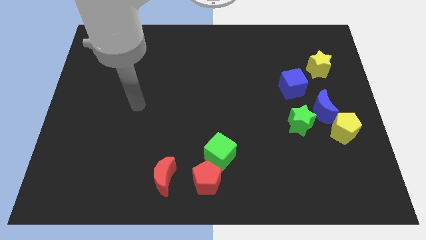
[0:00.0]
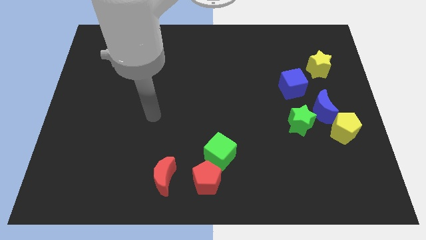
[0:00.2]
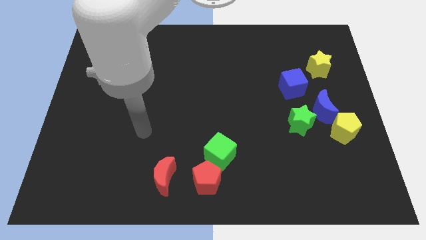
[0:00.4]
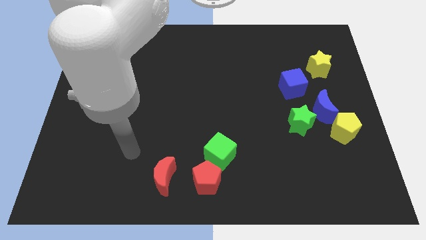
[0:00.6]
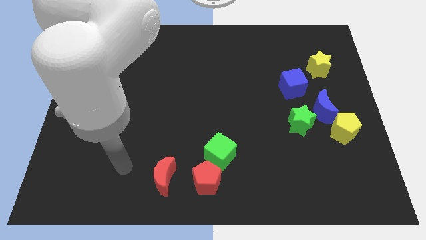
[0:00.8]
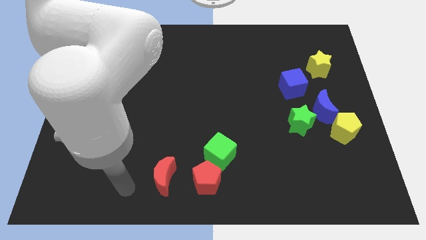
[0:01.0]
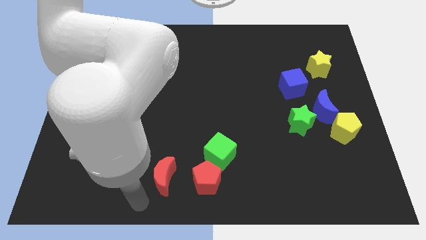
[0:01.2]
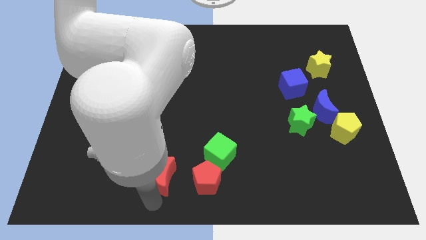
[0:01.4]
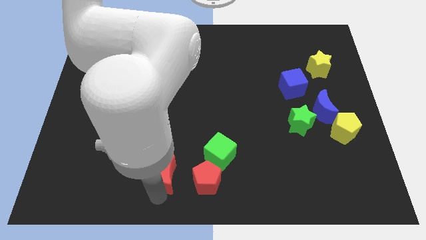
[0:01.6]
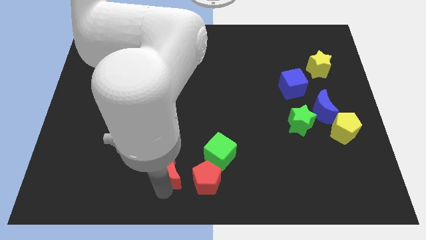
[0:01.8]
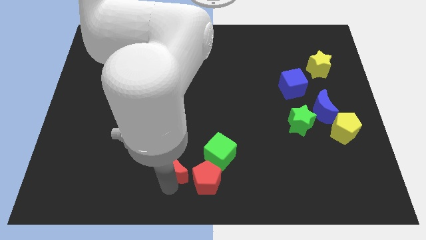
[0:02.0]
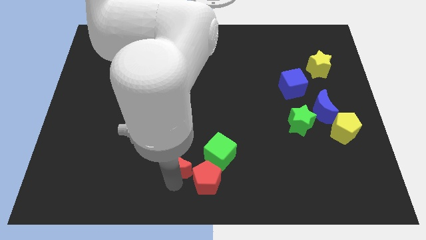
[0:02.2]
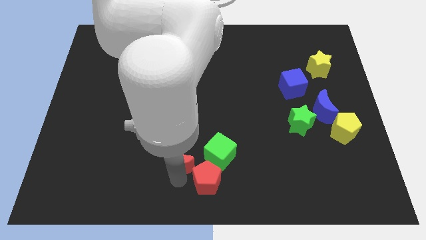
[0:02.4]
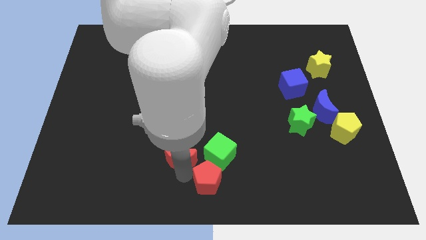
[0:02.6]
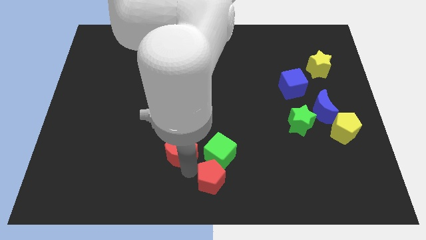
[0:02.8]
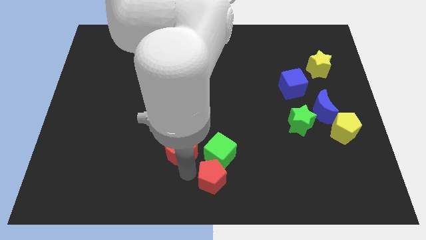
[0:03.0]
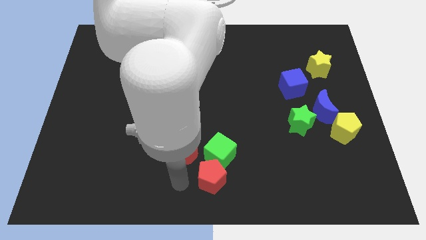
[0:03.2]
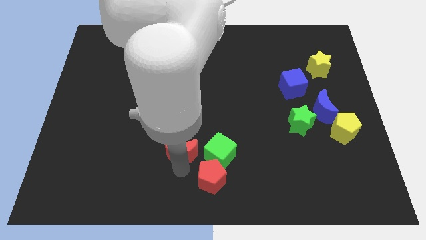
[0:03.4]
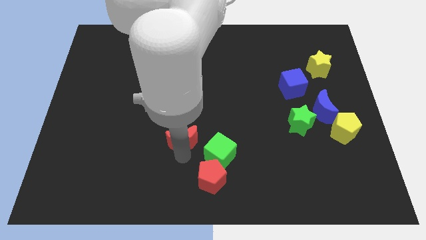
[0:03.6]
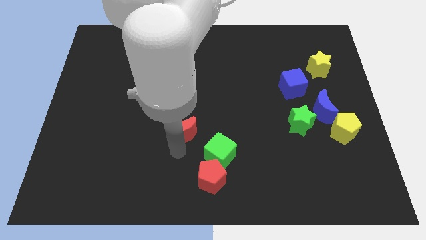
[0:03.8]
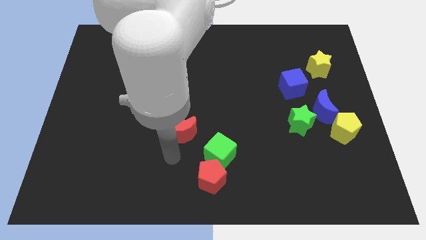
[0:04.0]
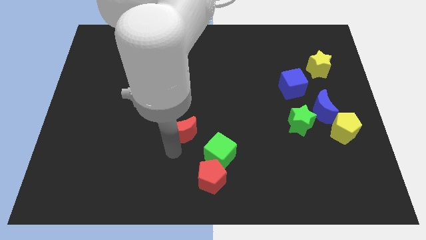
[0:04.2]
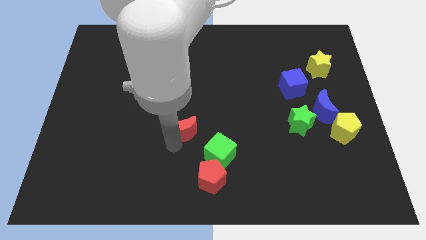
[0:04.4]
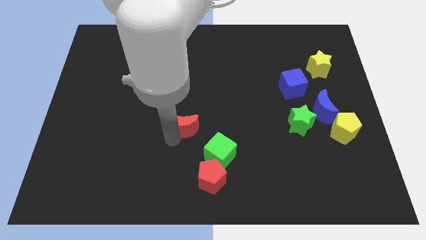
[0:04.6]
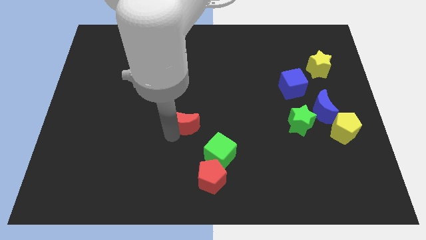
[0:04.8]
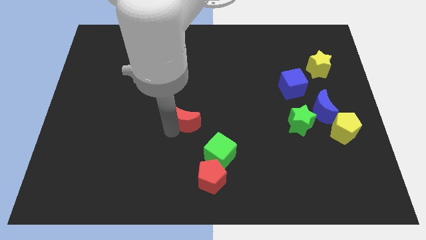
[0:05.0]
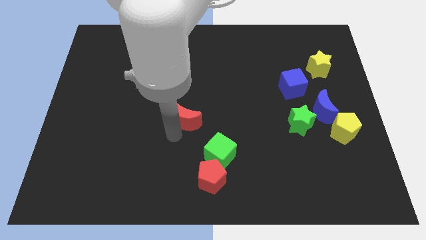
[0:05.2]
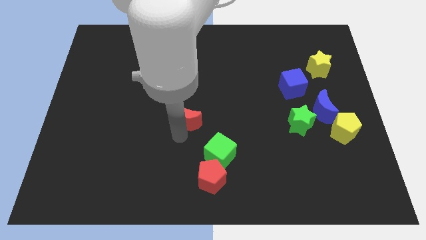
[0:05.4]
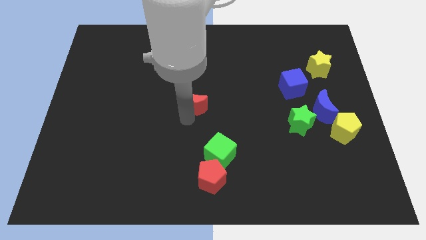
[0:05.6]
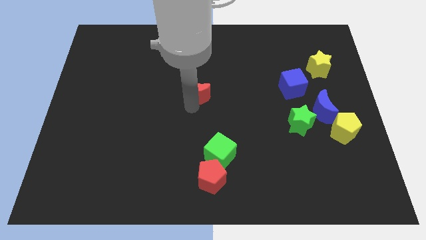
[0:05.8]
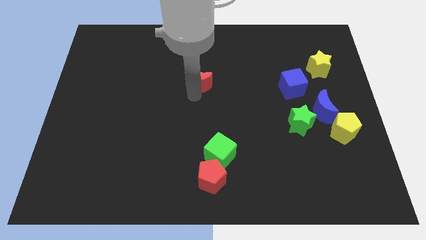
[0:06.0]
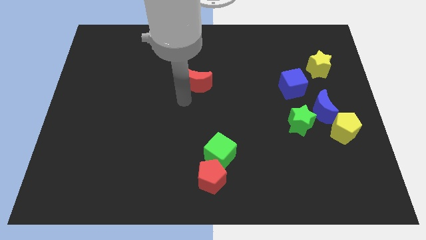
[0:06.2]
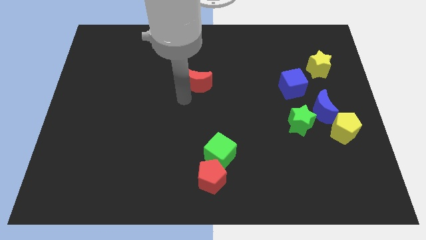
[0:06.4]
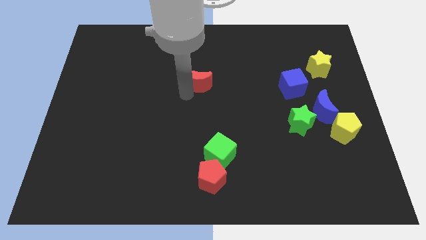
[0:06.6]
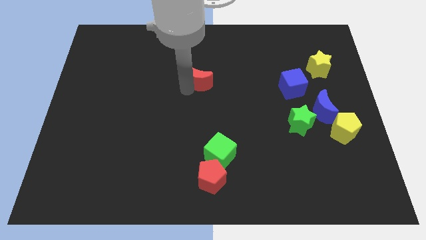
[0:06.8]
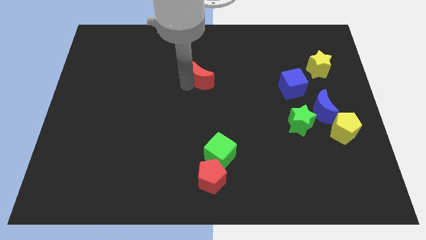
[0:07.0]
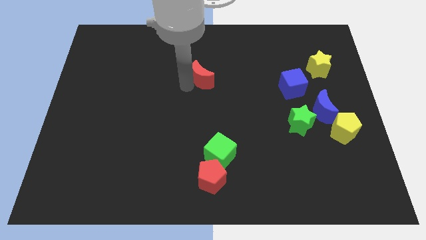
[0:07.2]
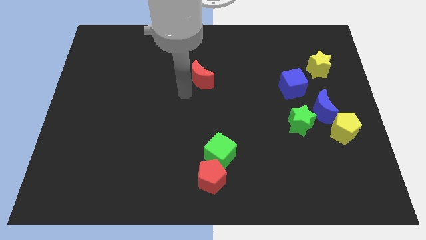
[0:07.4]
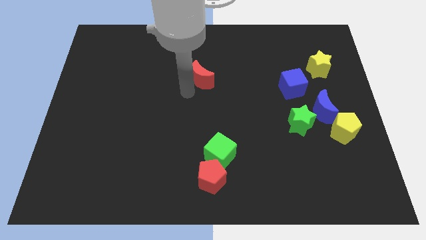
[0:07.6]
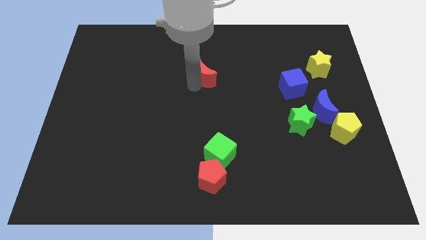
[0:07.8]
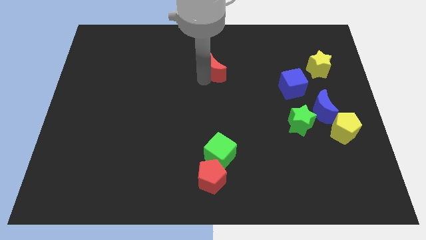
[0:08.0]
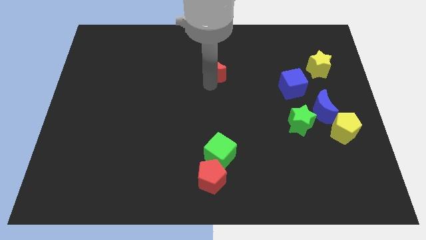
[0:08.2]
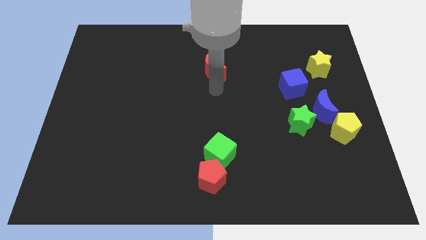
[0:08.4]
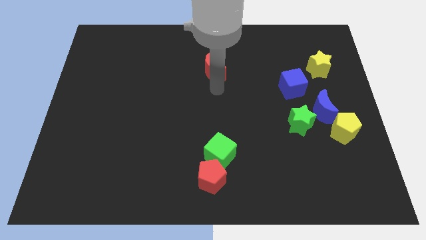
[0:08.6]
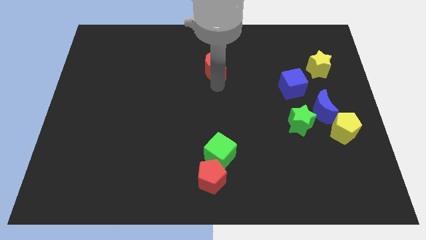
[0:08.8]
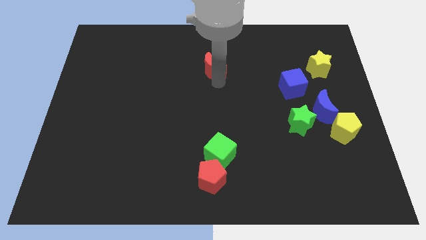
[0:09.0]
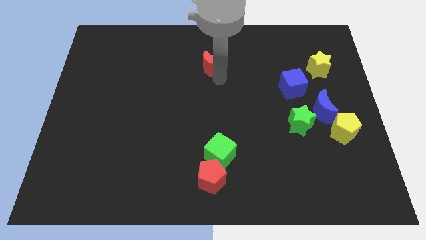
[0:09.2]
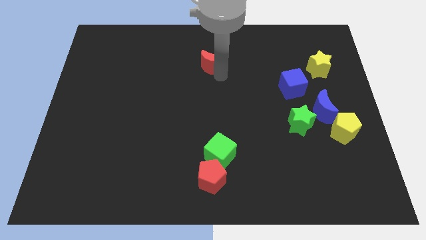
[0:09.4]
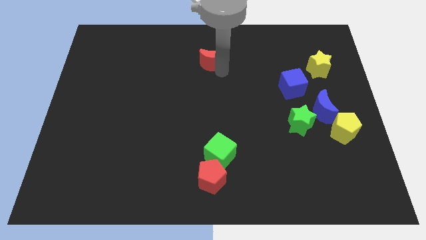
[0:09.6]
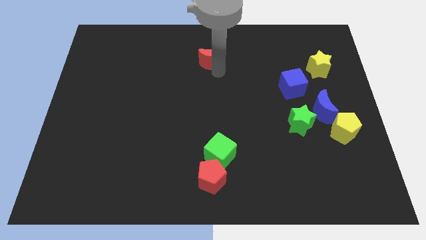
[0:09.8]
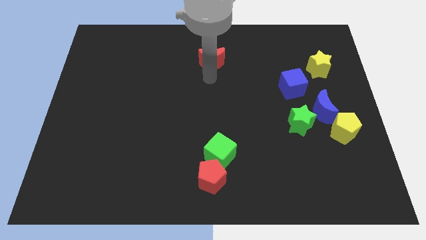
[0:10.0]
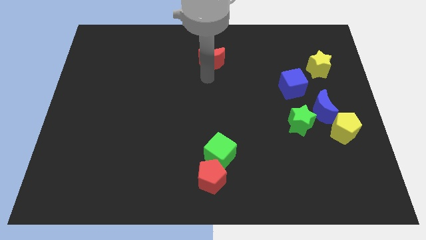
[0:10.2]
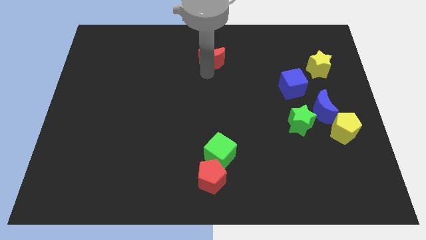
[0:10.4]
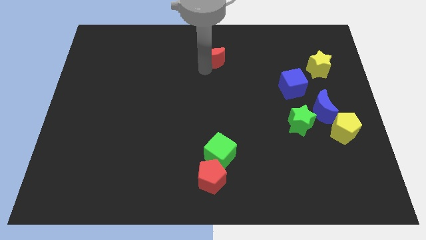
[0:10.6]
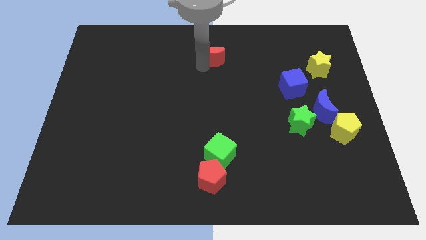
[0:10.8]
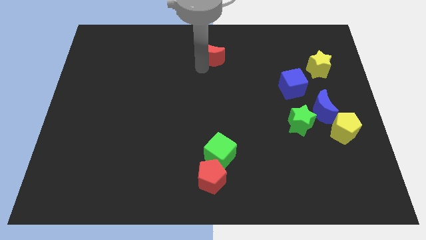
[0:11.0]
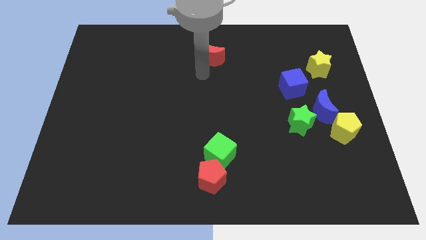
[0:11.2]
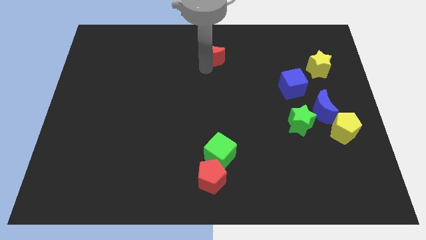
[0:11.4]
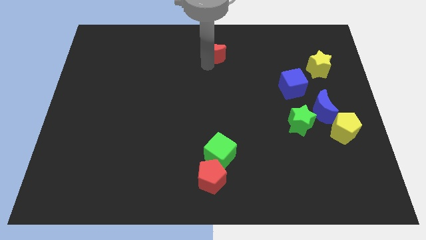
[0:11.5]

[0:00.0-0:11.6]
slide the red moon to the top

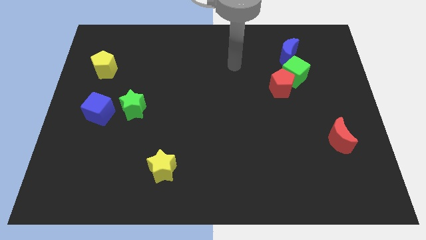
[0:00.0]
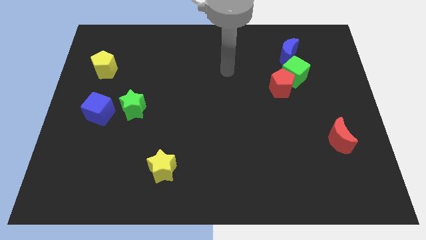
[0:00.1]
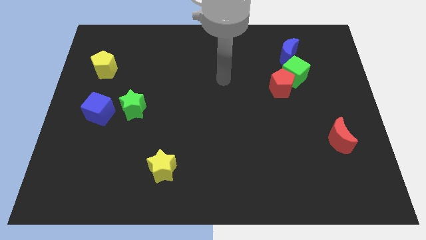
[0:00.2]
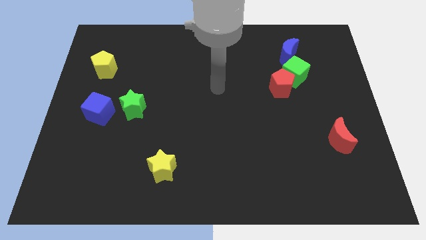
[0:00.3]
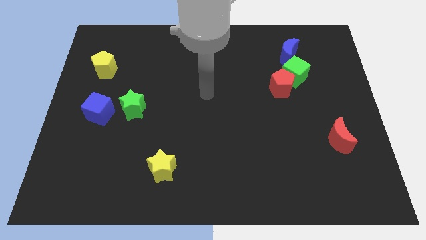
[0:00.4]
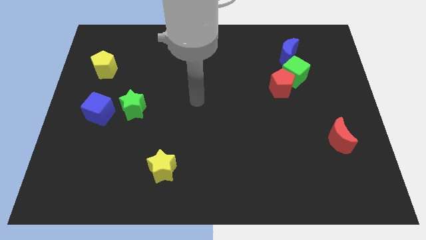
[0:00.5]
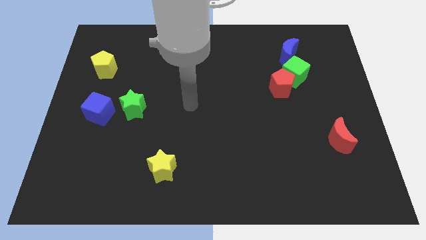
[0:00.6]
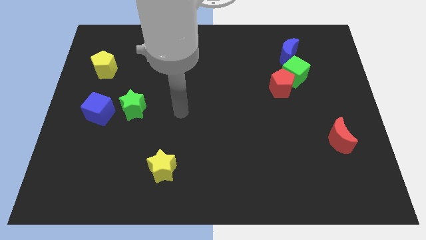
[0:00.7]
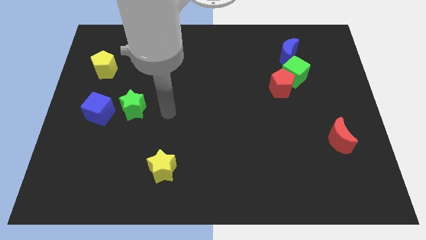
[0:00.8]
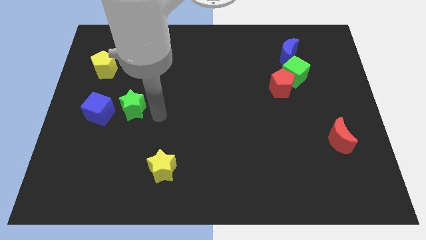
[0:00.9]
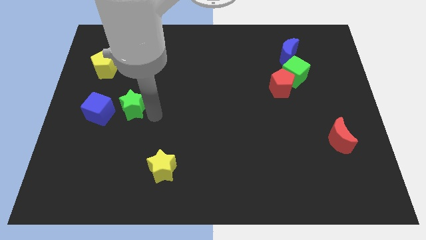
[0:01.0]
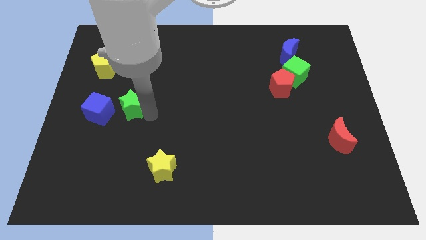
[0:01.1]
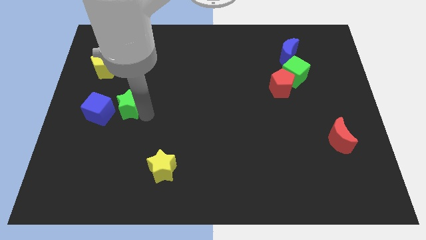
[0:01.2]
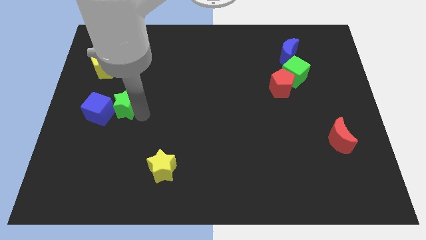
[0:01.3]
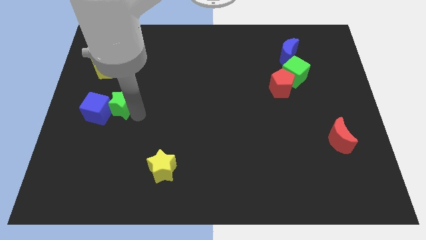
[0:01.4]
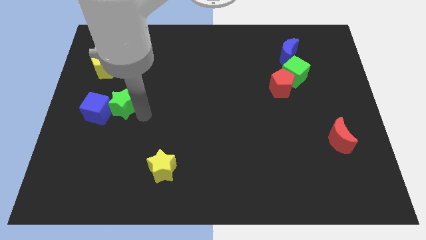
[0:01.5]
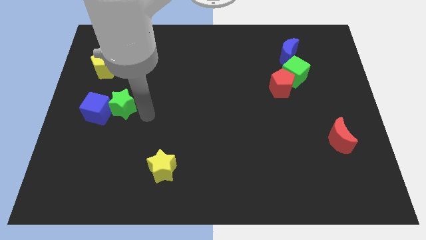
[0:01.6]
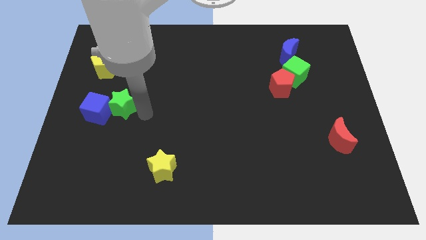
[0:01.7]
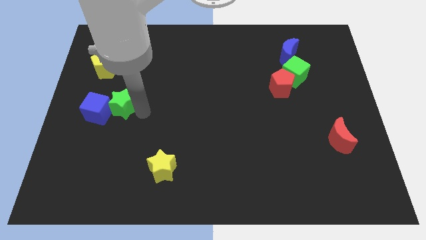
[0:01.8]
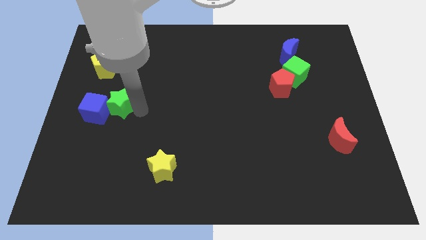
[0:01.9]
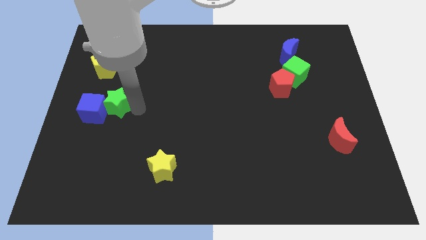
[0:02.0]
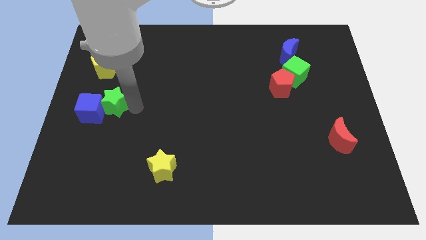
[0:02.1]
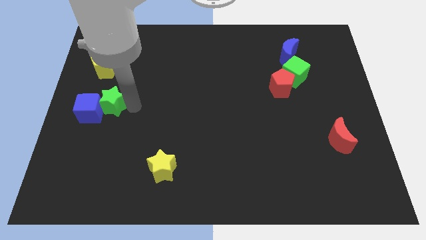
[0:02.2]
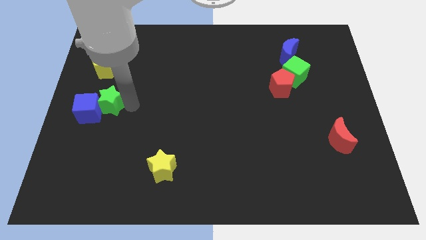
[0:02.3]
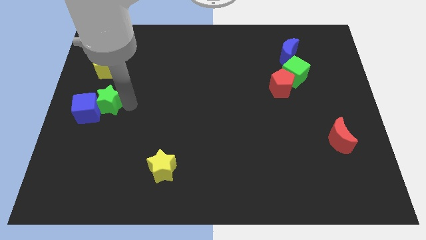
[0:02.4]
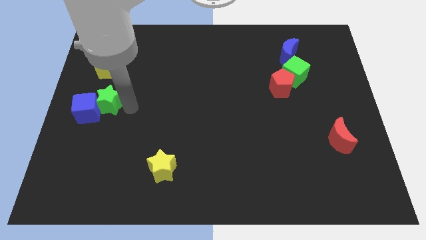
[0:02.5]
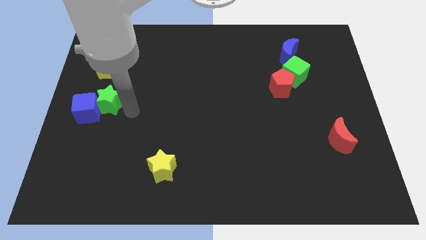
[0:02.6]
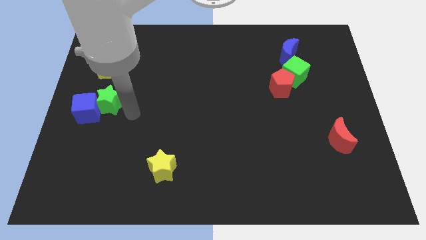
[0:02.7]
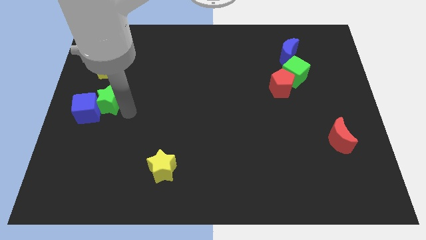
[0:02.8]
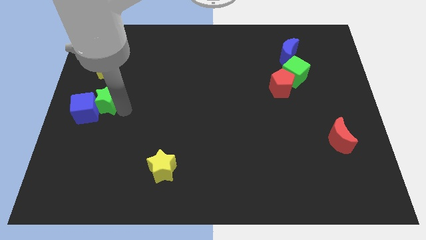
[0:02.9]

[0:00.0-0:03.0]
put the green star to the left side
